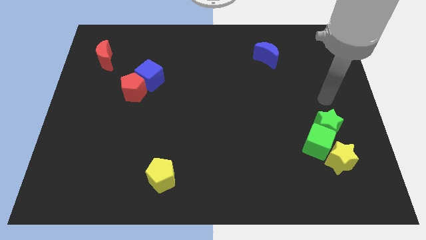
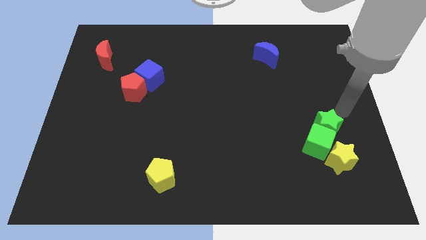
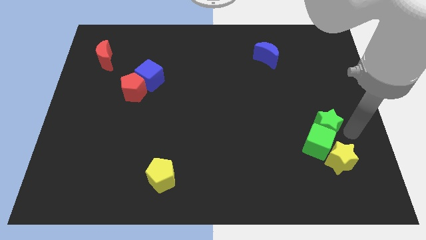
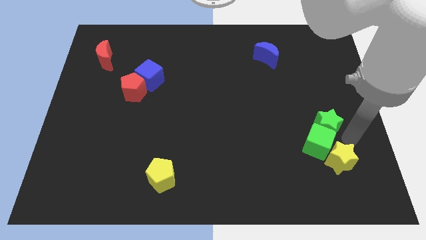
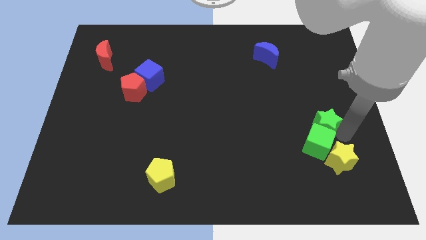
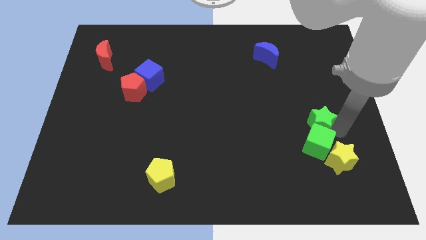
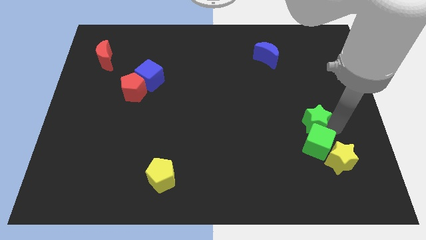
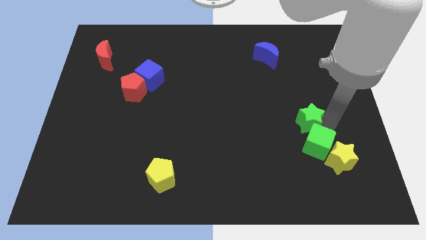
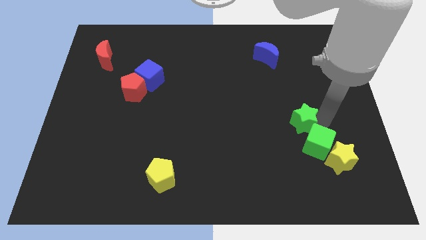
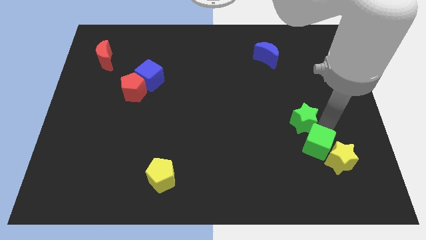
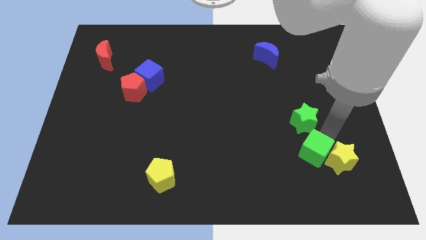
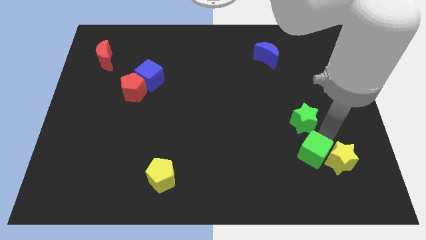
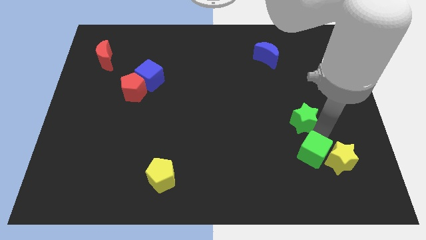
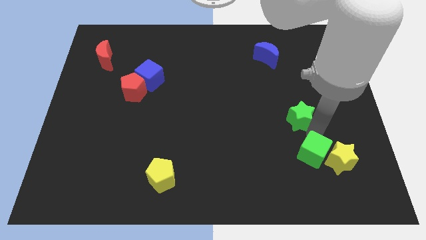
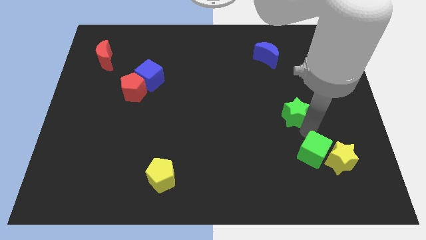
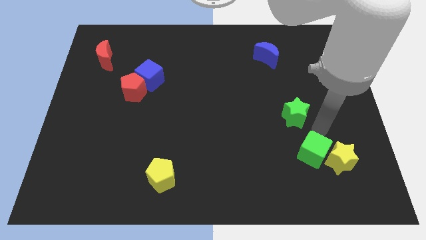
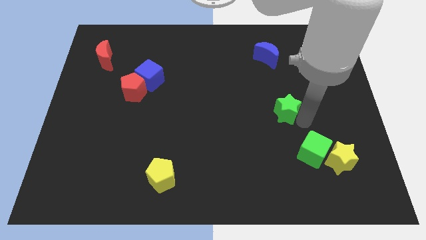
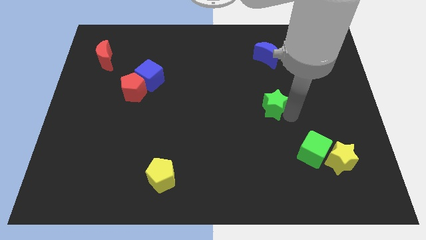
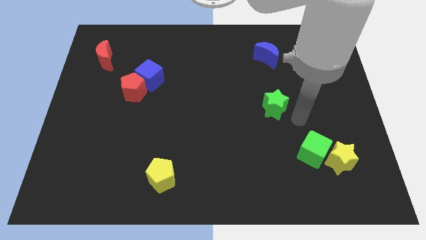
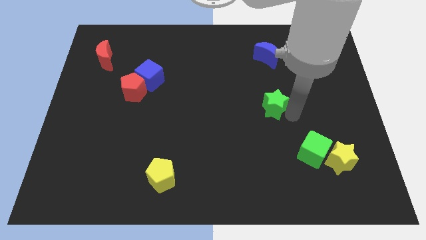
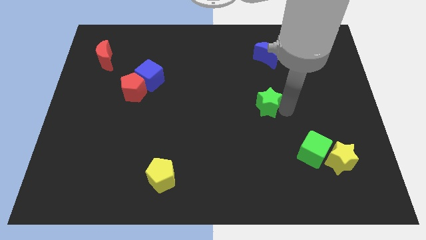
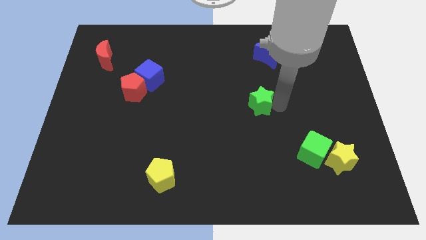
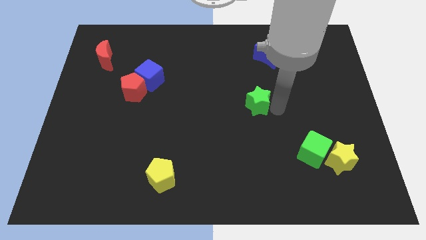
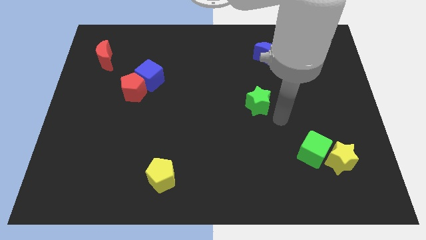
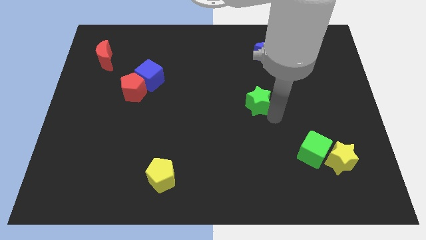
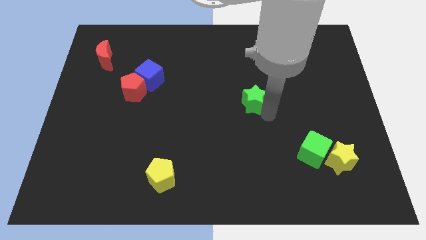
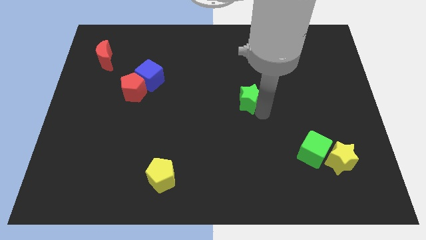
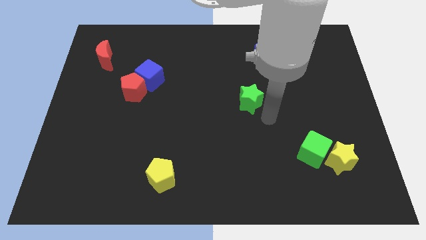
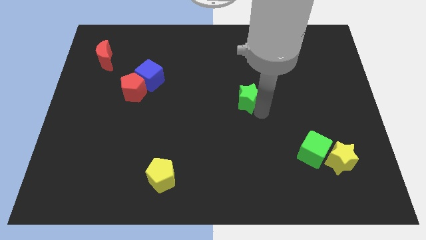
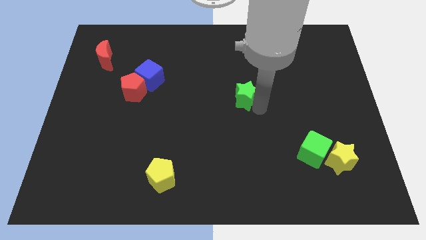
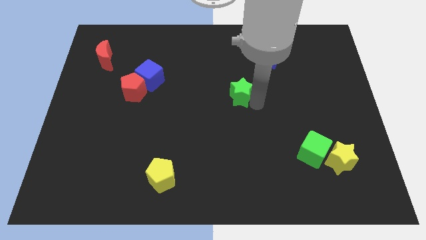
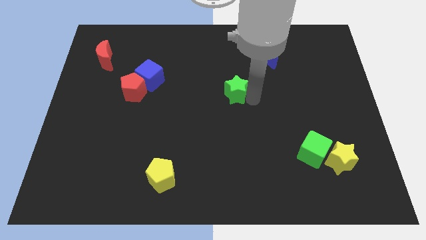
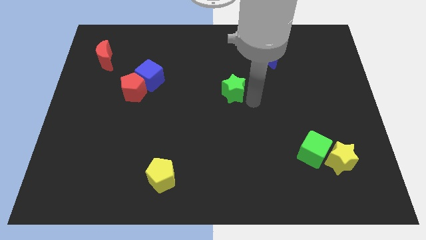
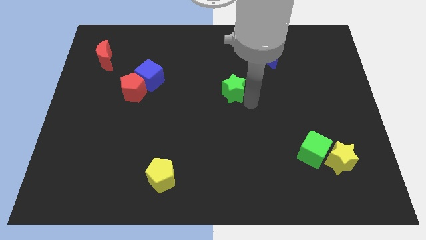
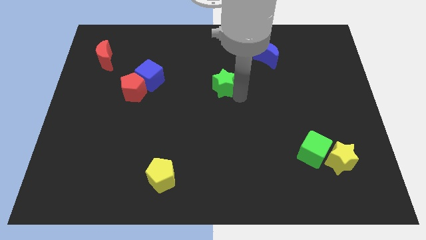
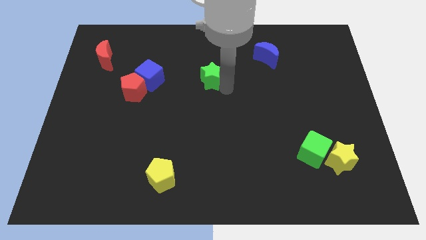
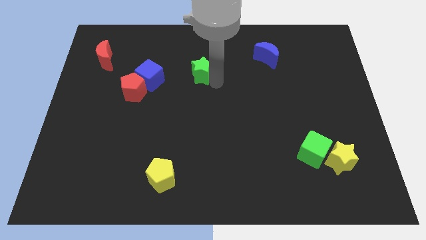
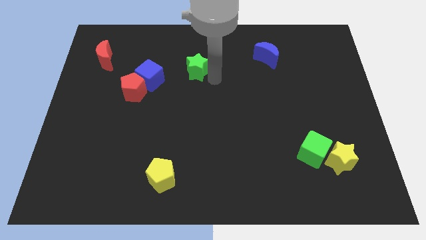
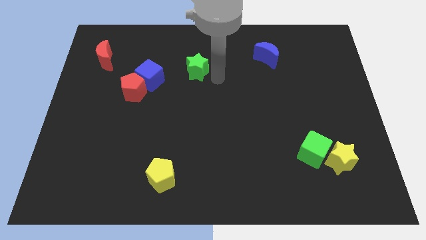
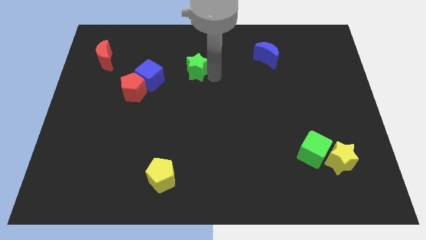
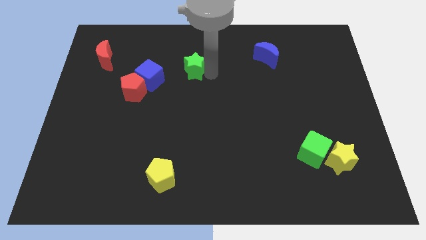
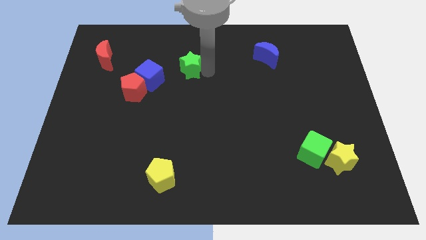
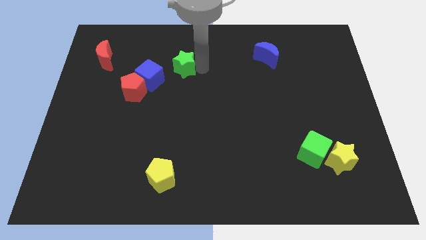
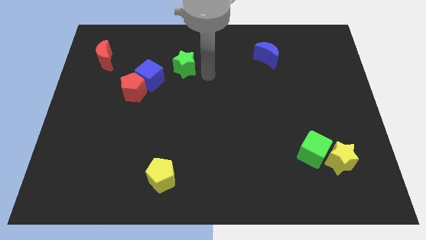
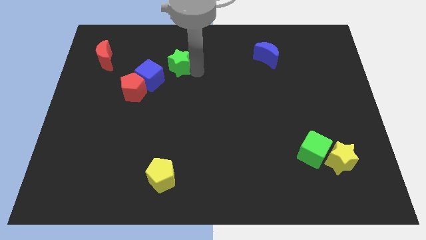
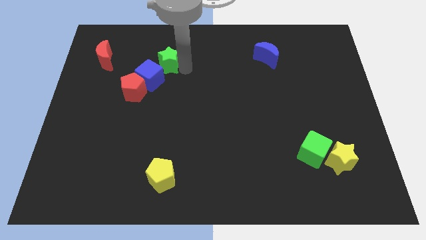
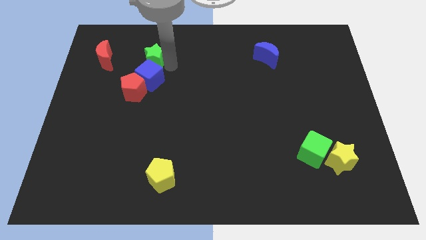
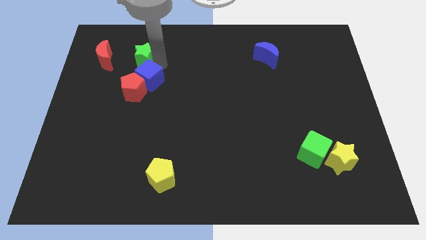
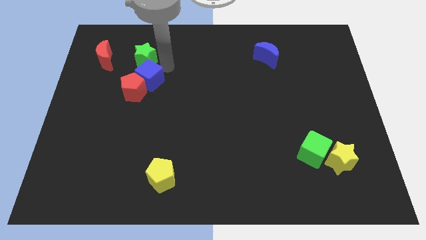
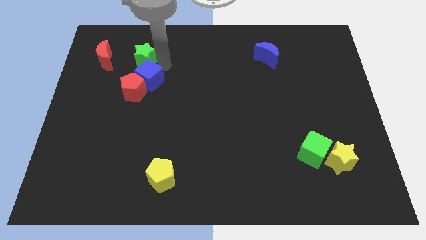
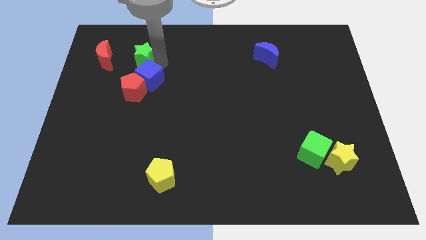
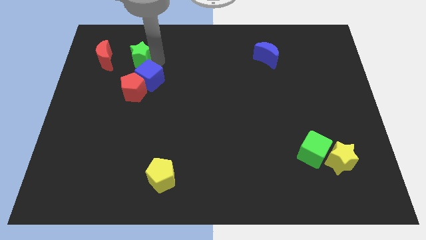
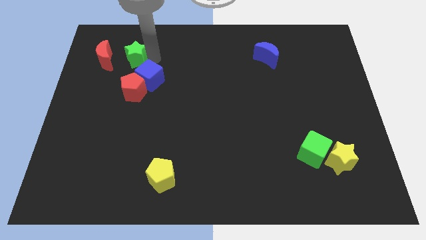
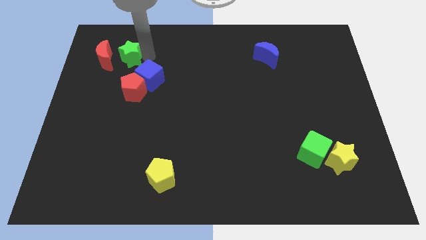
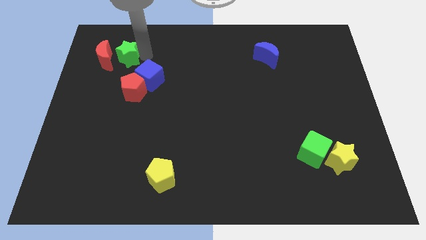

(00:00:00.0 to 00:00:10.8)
slide the green star close to the red moon

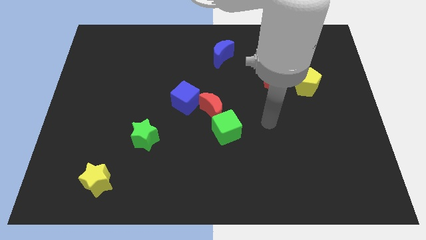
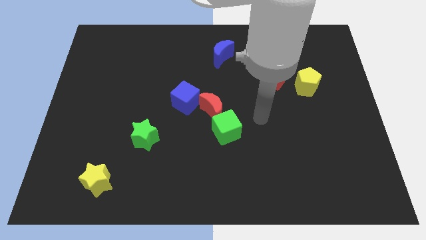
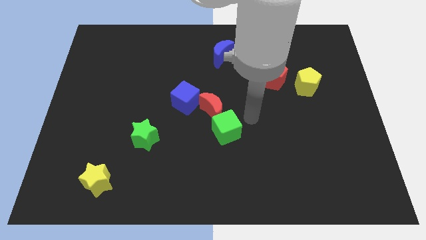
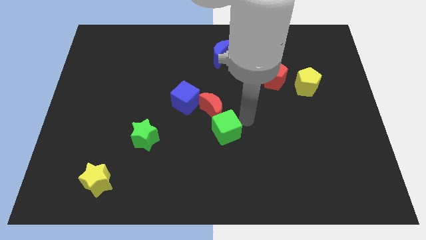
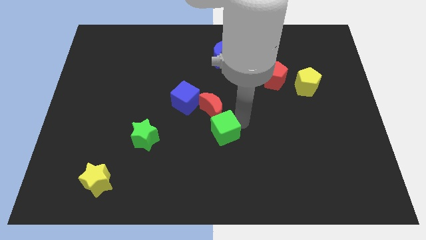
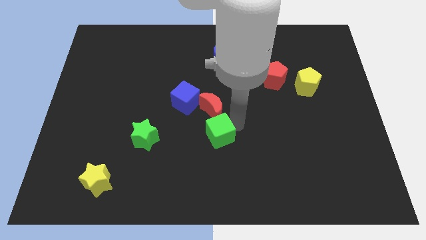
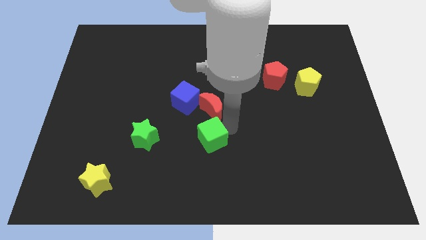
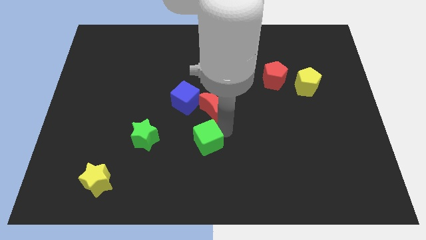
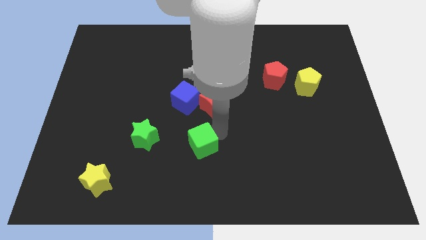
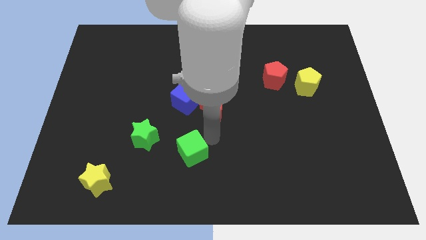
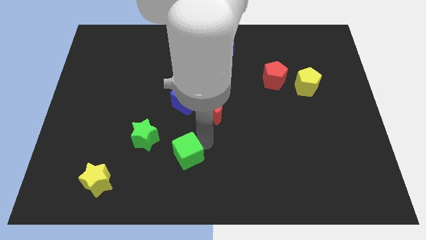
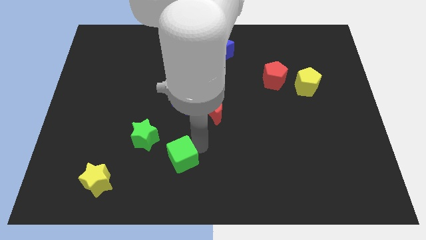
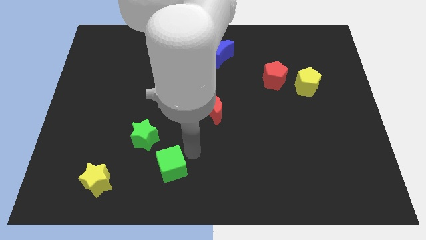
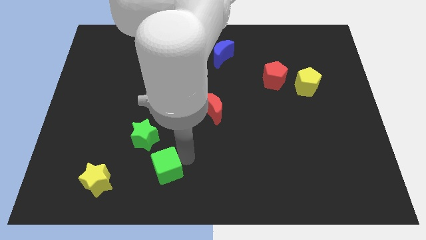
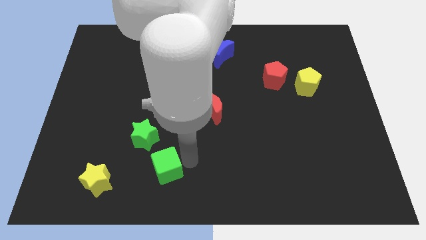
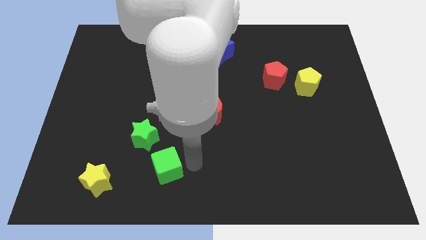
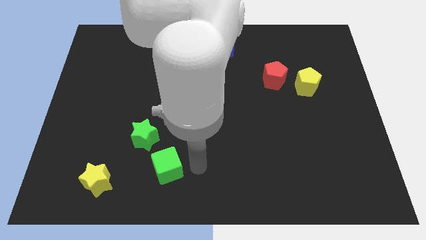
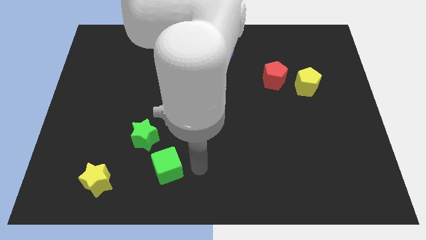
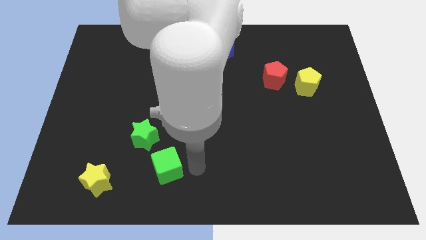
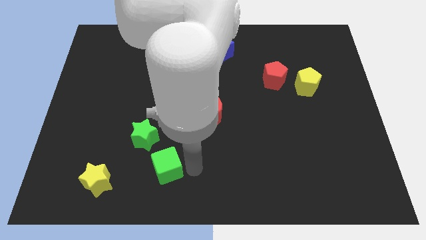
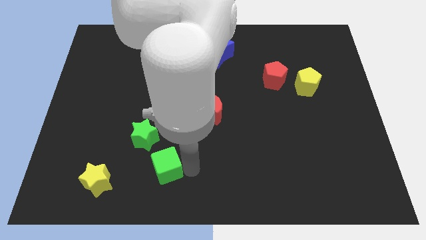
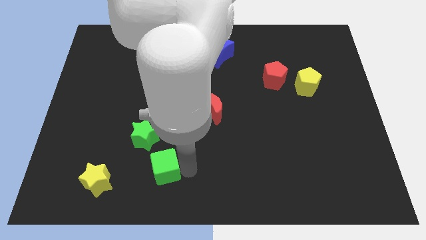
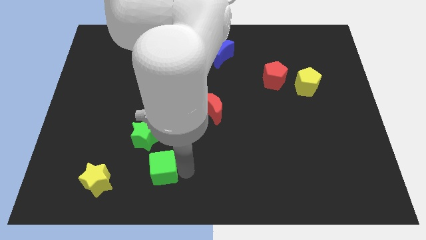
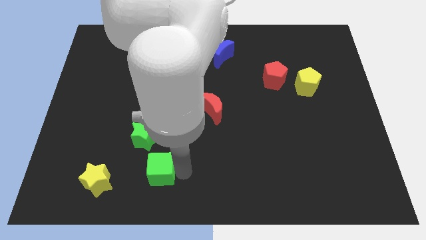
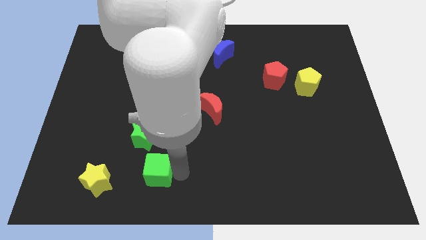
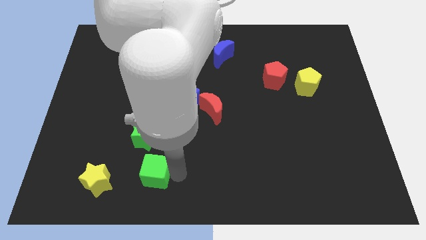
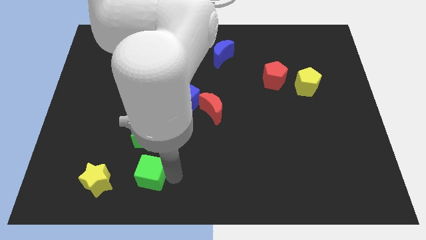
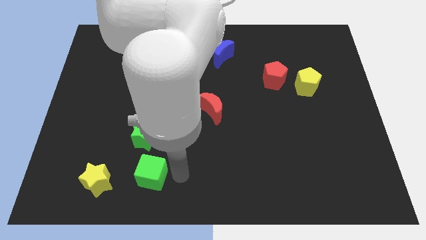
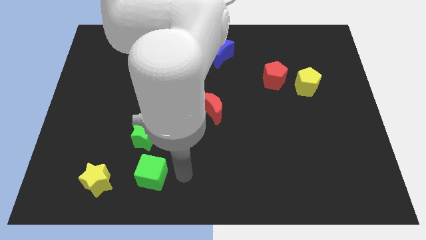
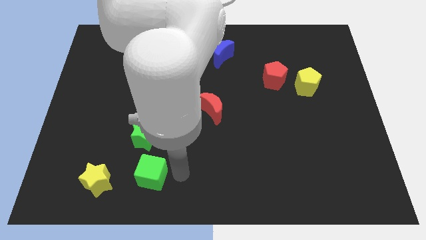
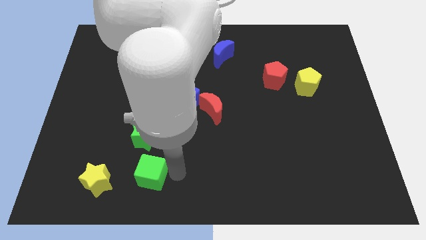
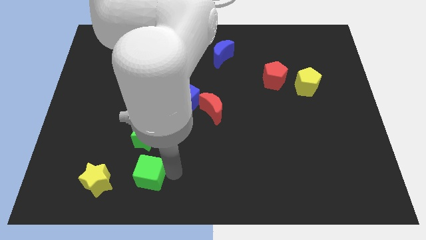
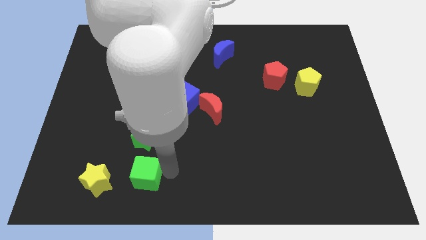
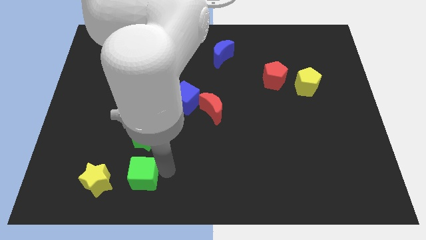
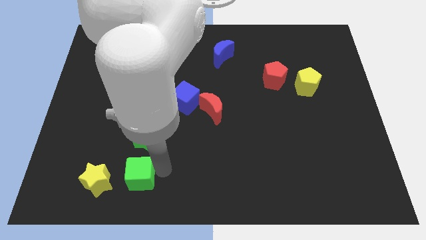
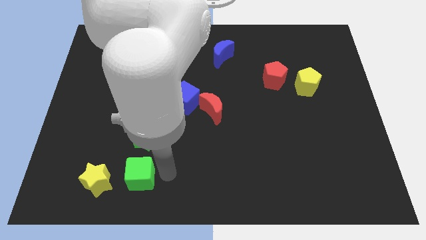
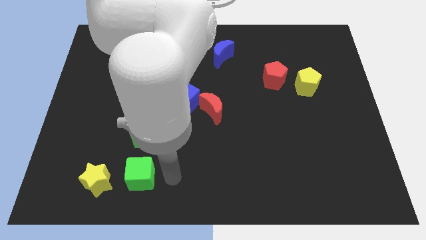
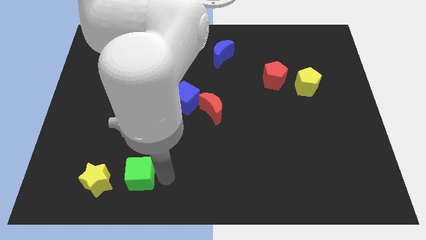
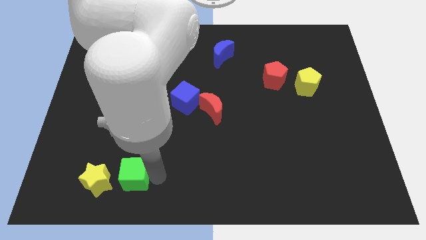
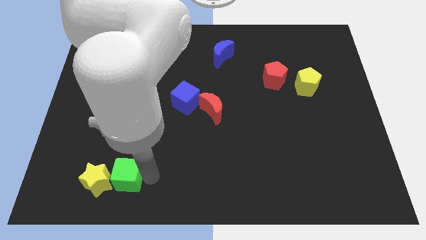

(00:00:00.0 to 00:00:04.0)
slide the green cube towards the yellow star
